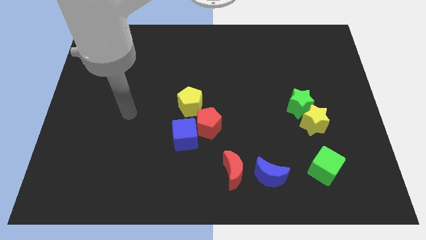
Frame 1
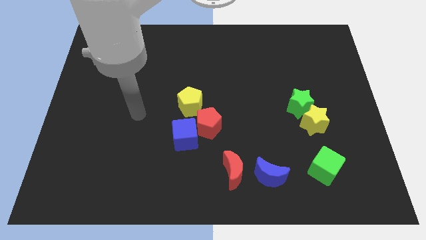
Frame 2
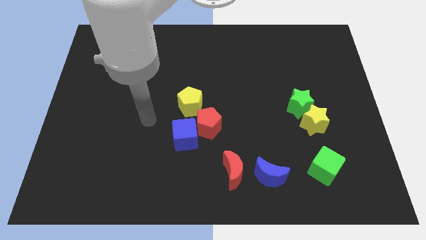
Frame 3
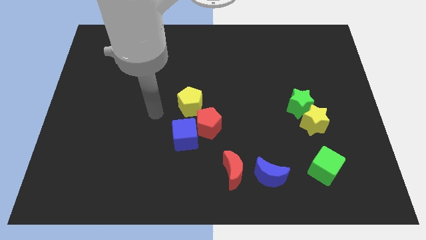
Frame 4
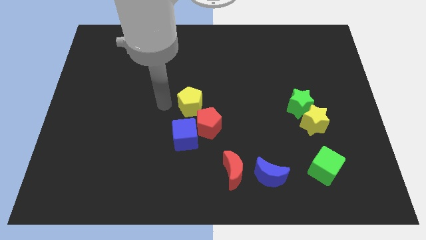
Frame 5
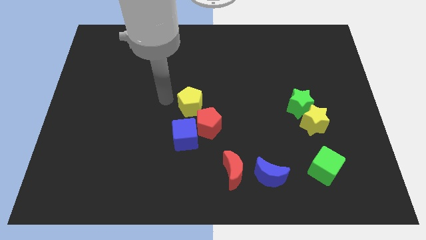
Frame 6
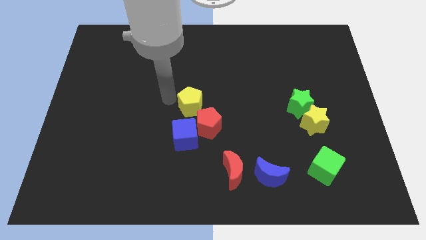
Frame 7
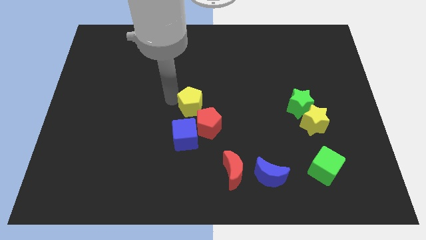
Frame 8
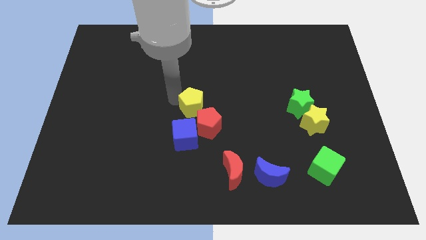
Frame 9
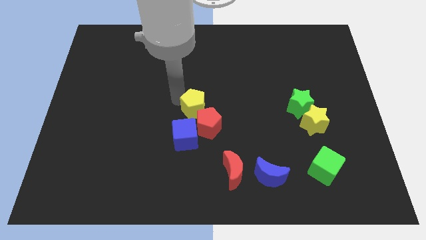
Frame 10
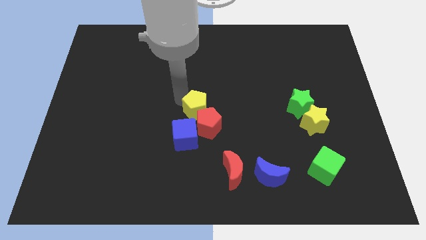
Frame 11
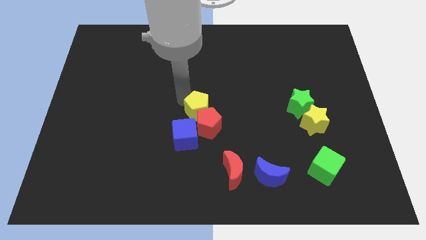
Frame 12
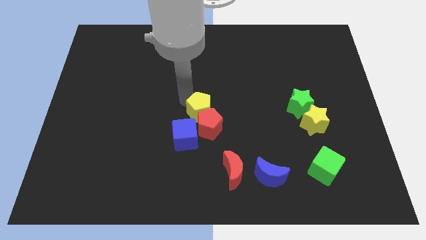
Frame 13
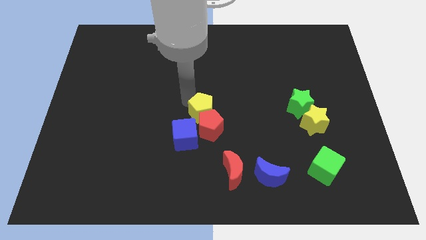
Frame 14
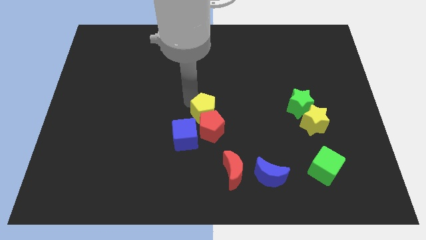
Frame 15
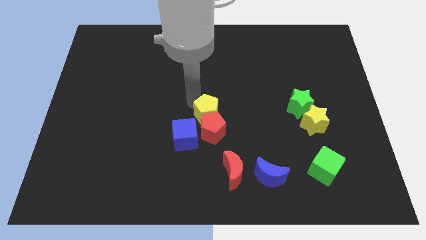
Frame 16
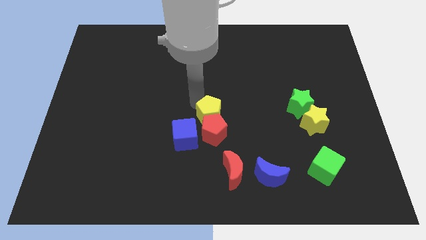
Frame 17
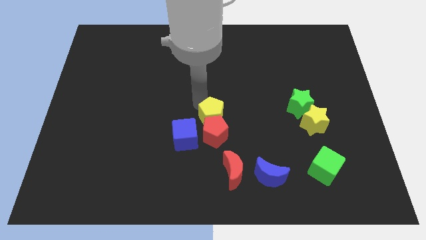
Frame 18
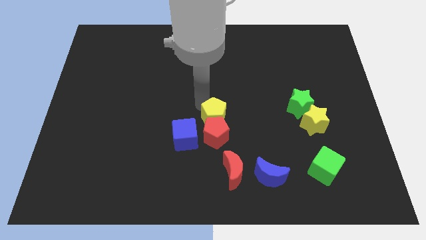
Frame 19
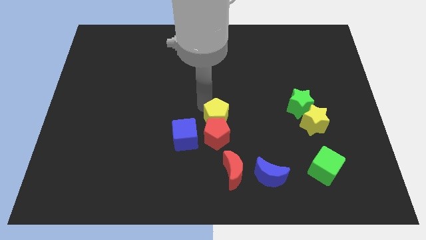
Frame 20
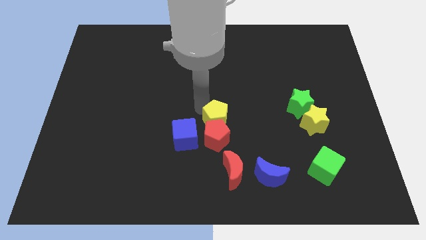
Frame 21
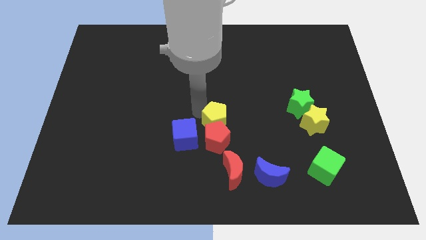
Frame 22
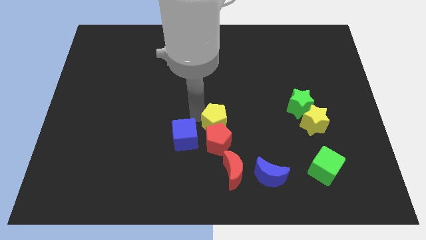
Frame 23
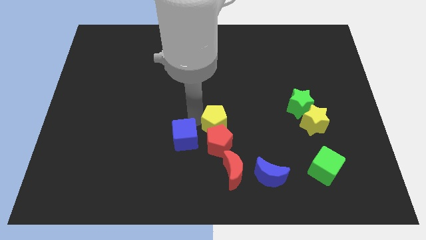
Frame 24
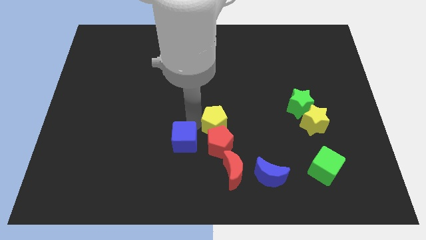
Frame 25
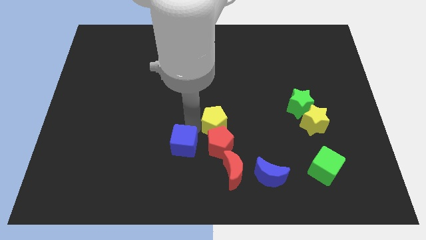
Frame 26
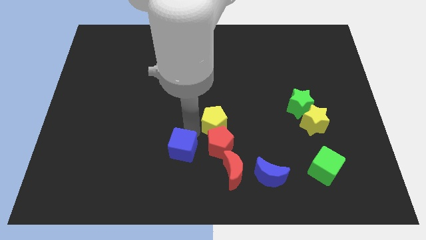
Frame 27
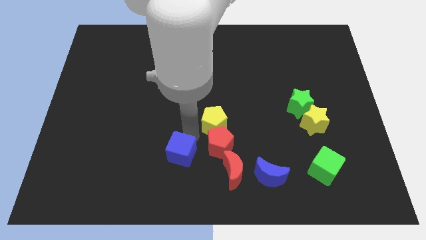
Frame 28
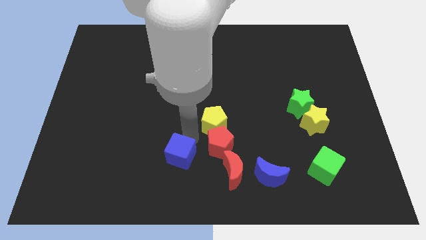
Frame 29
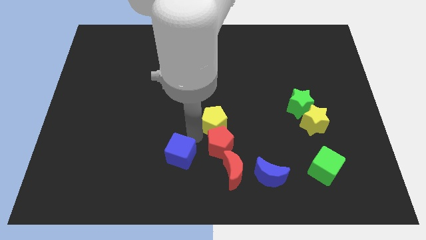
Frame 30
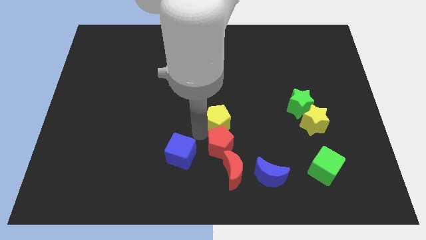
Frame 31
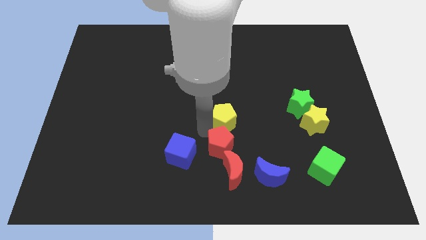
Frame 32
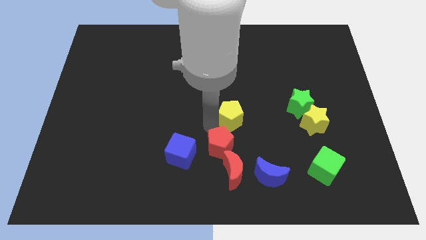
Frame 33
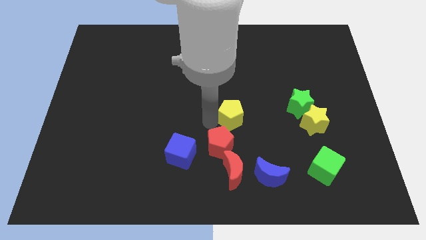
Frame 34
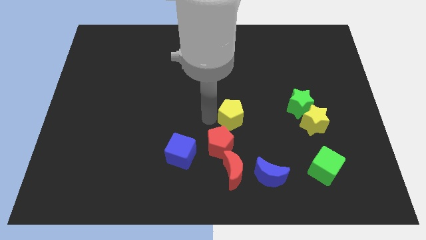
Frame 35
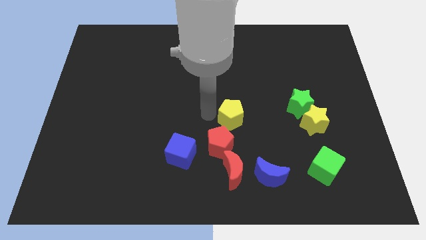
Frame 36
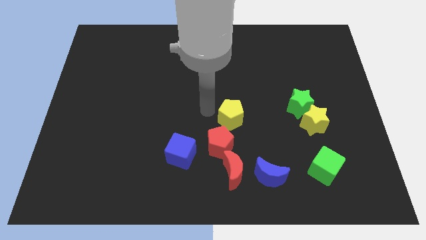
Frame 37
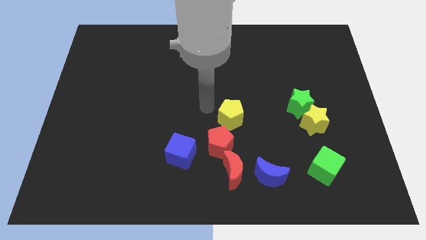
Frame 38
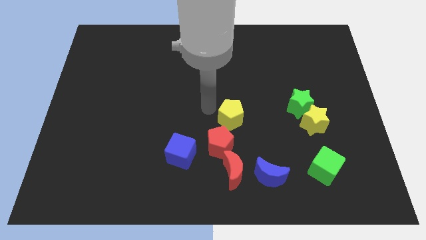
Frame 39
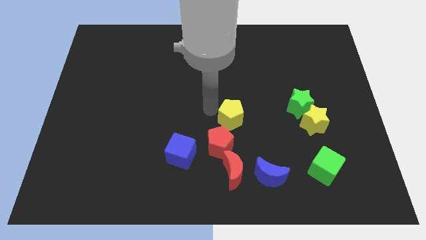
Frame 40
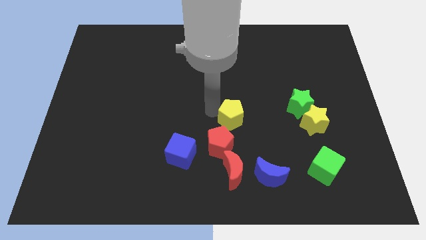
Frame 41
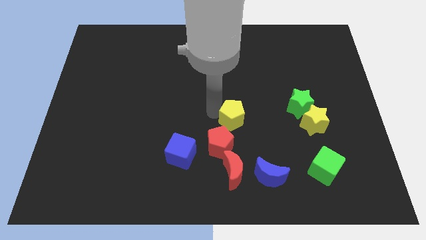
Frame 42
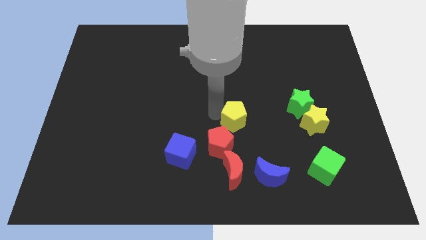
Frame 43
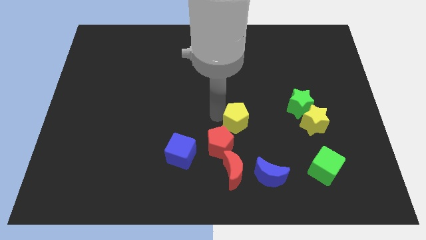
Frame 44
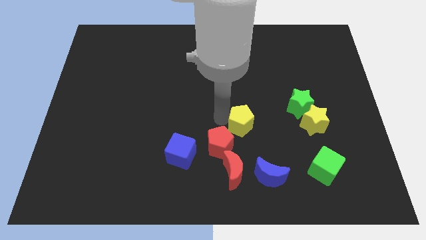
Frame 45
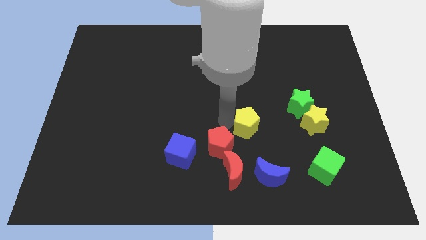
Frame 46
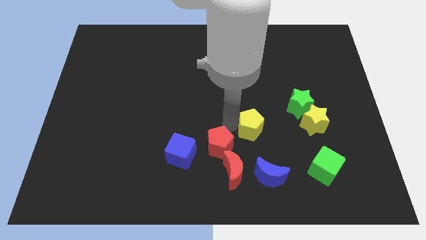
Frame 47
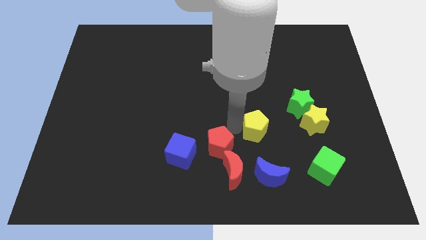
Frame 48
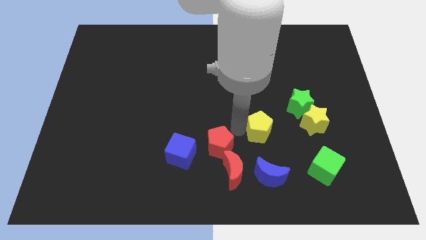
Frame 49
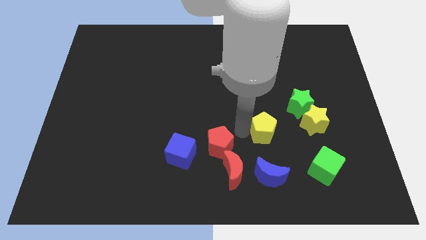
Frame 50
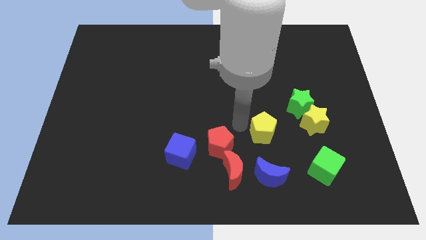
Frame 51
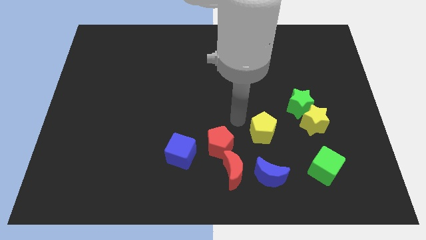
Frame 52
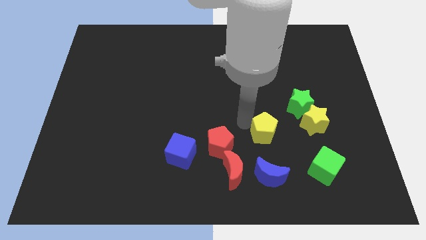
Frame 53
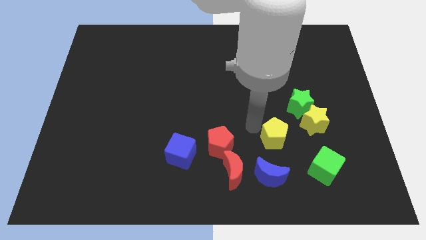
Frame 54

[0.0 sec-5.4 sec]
slide the yellow pentagon to the top left side of the green cube

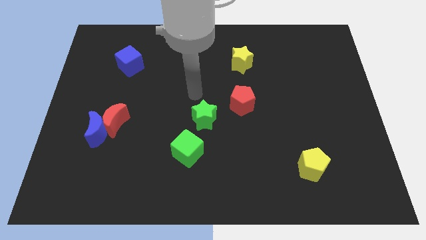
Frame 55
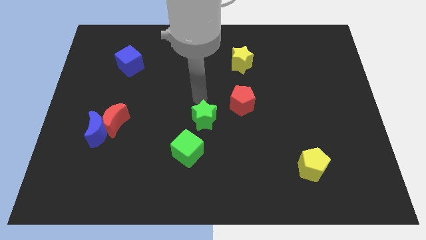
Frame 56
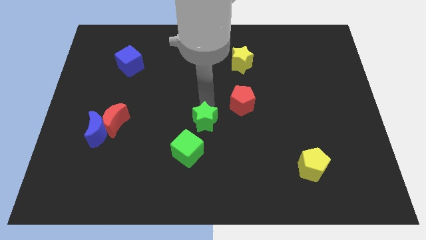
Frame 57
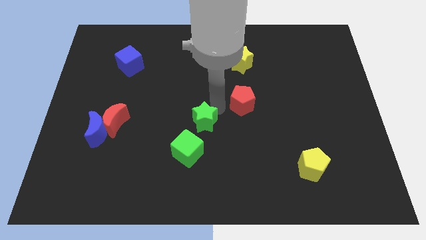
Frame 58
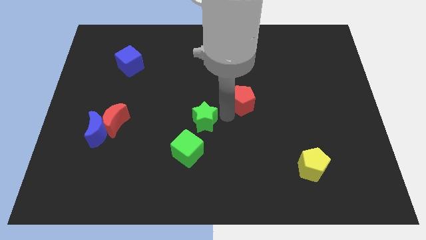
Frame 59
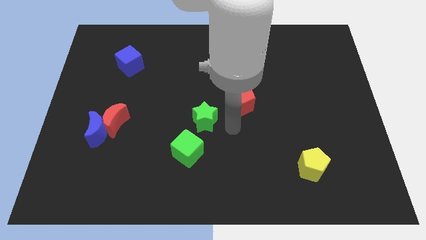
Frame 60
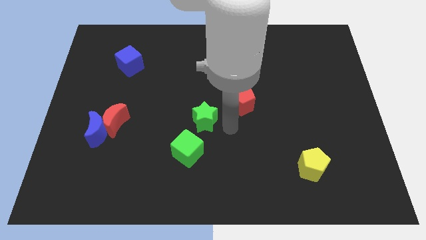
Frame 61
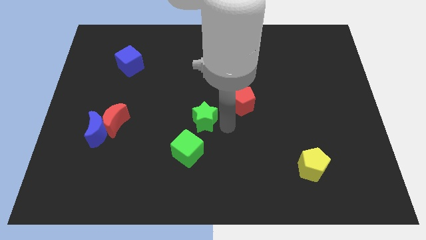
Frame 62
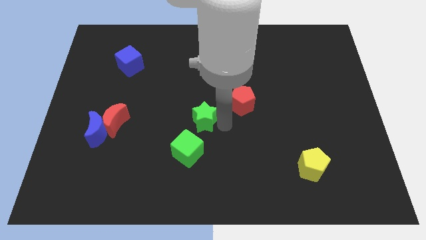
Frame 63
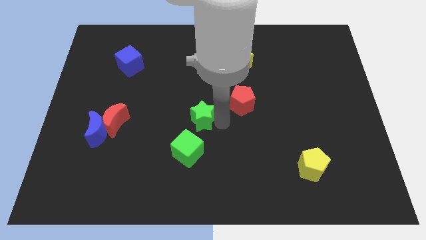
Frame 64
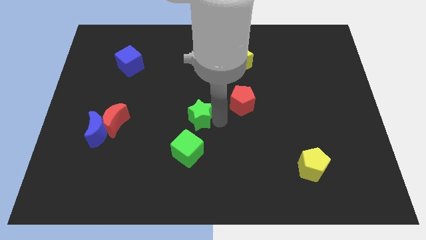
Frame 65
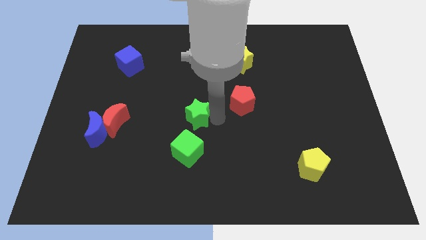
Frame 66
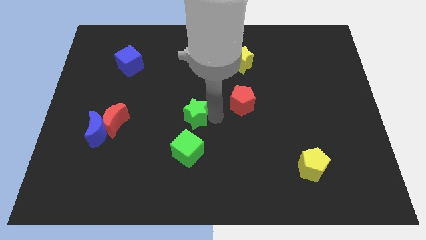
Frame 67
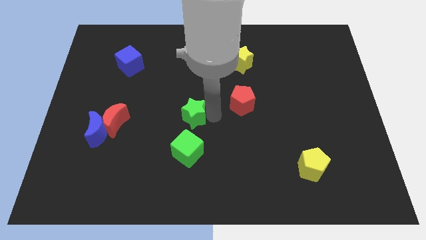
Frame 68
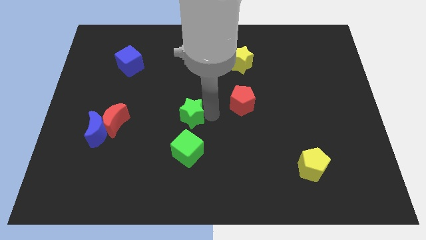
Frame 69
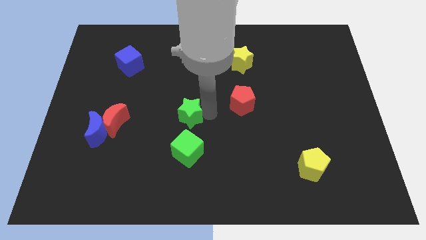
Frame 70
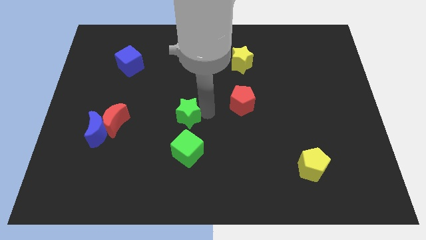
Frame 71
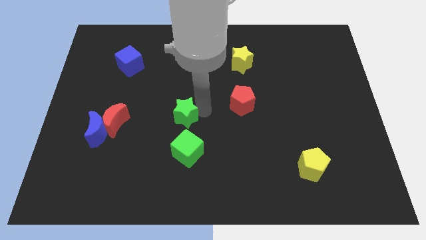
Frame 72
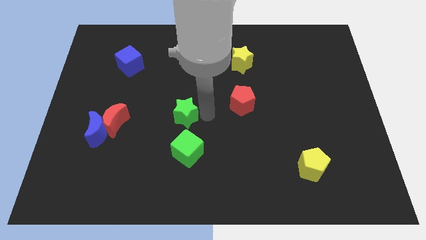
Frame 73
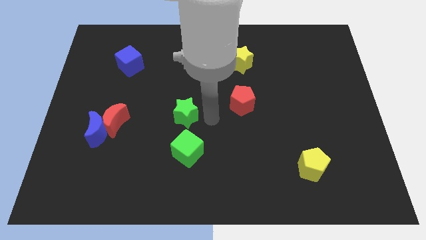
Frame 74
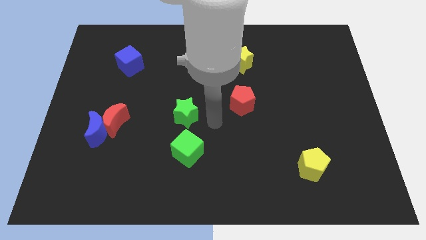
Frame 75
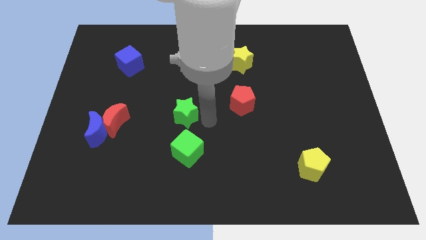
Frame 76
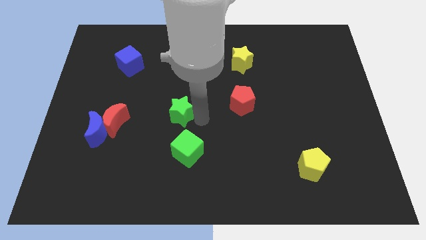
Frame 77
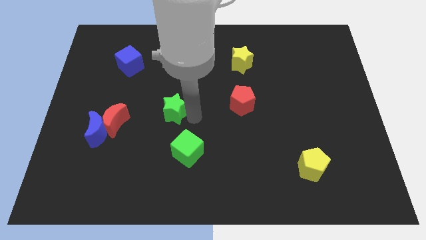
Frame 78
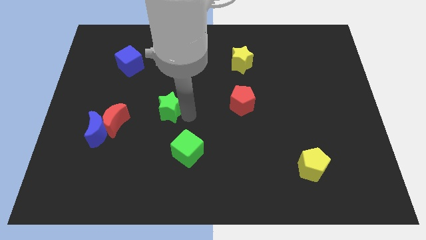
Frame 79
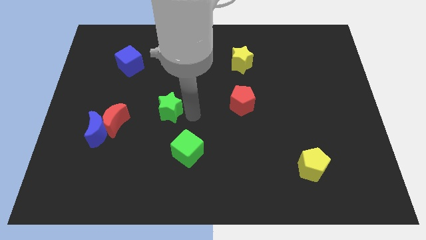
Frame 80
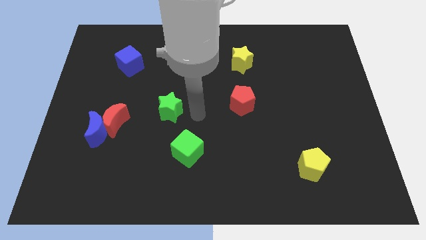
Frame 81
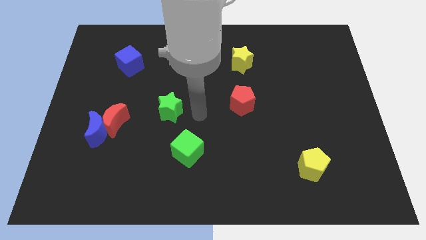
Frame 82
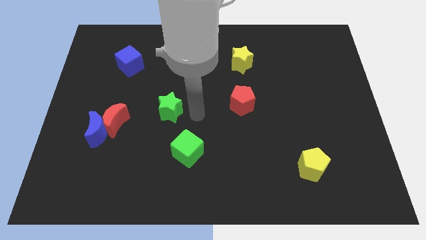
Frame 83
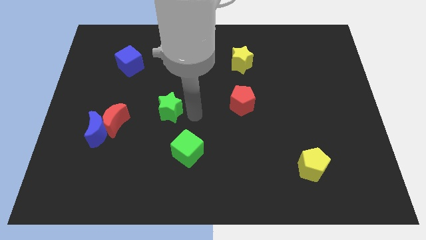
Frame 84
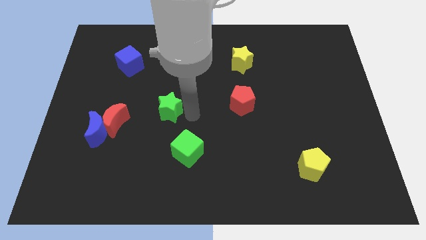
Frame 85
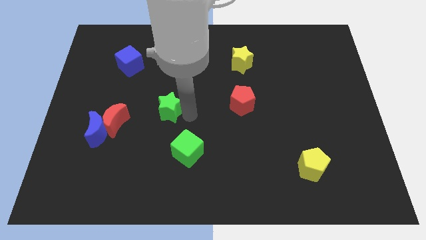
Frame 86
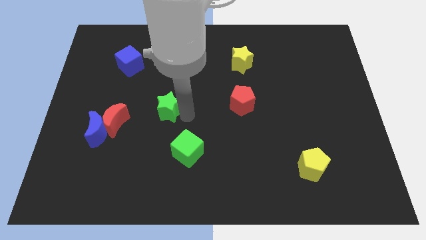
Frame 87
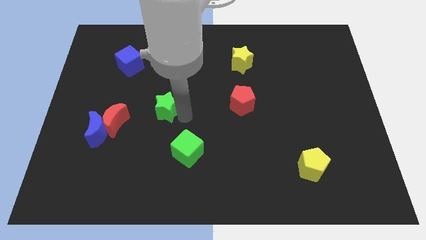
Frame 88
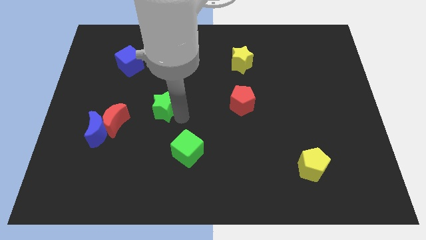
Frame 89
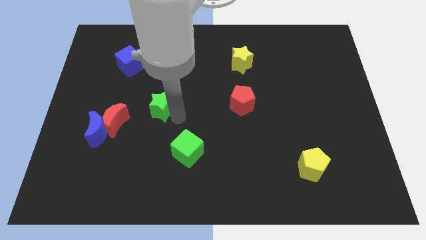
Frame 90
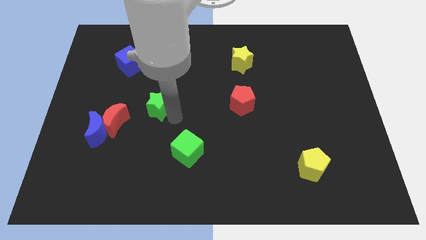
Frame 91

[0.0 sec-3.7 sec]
push the green star to the top right of the red moon
